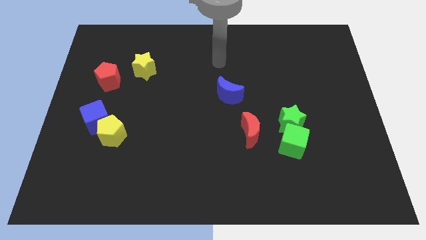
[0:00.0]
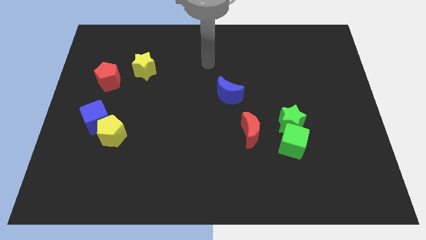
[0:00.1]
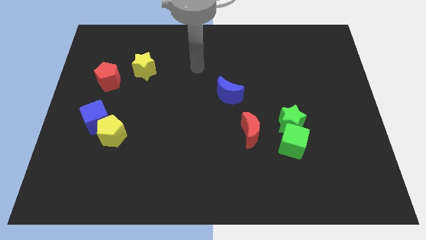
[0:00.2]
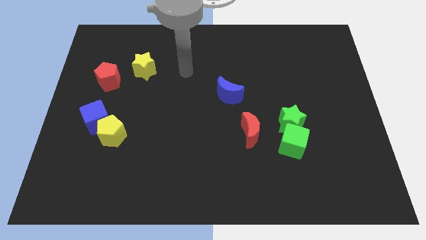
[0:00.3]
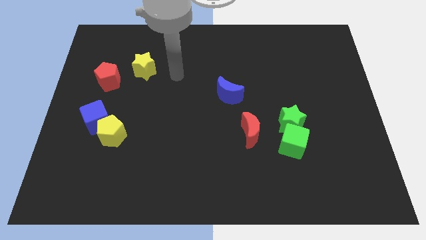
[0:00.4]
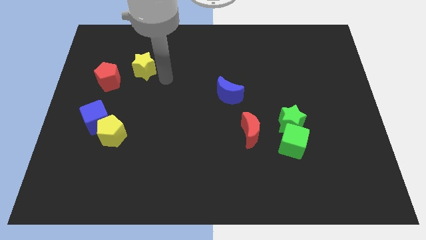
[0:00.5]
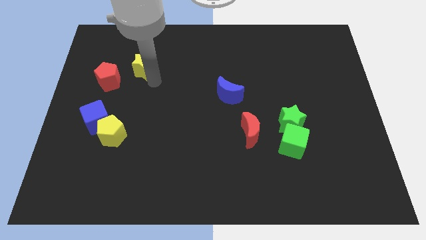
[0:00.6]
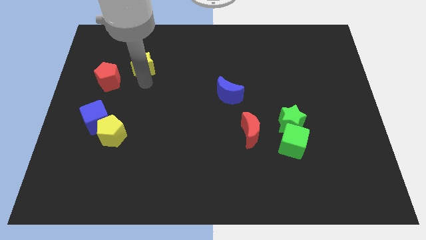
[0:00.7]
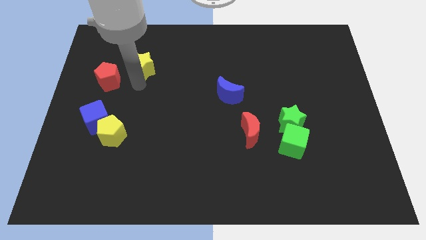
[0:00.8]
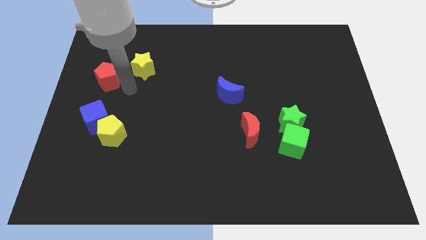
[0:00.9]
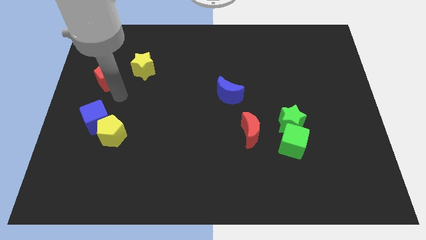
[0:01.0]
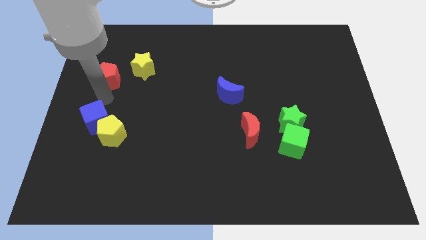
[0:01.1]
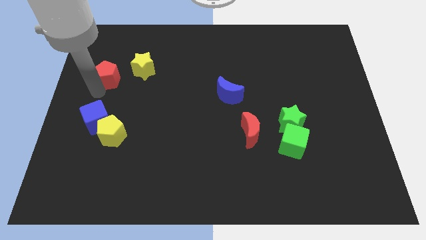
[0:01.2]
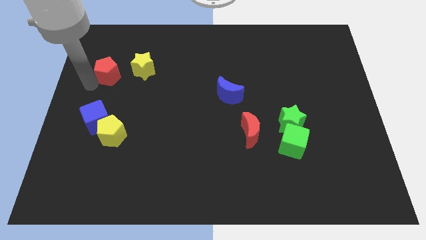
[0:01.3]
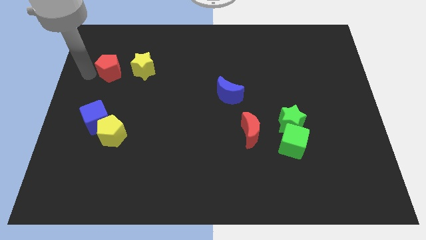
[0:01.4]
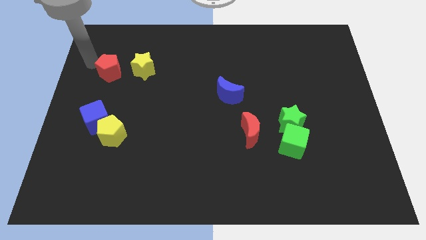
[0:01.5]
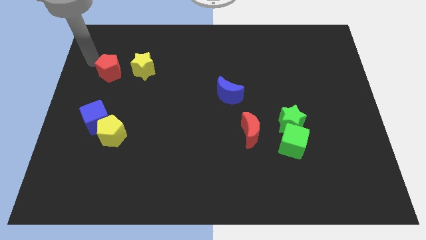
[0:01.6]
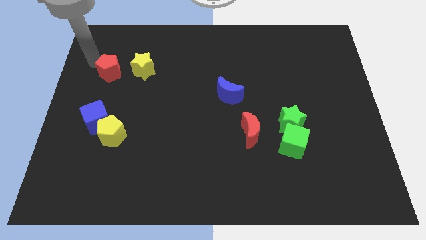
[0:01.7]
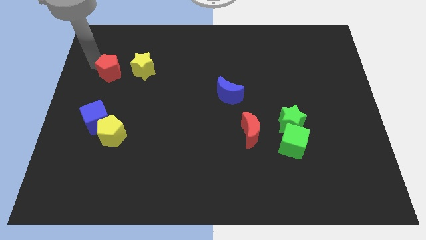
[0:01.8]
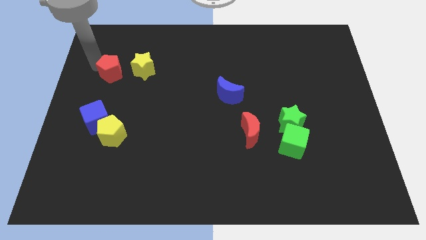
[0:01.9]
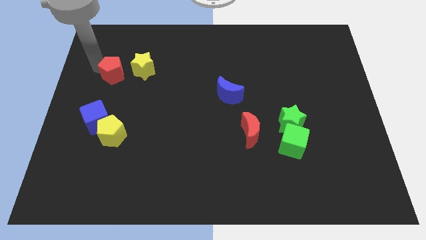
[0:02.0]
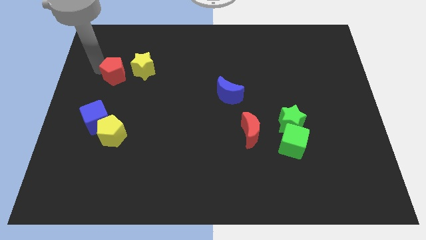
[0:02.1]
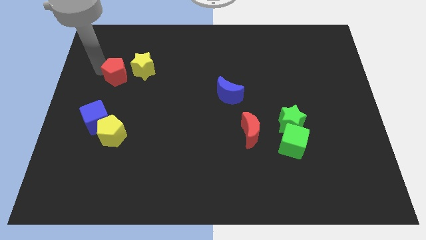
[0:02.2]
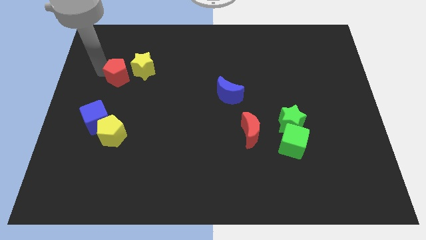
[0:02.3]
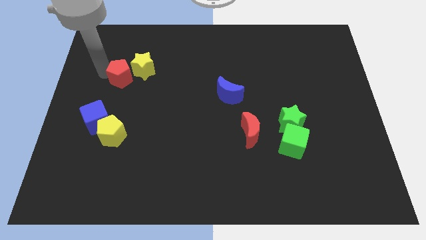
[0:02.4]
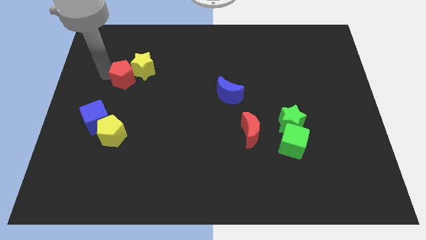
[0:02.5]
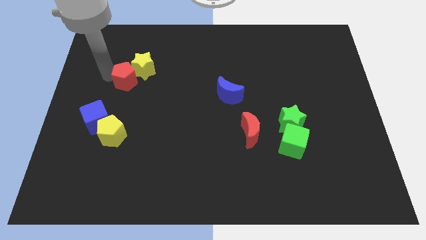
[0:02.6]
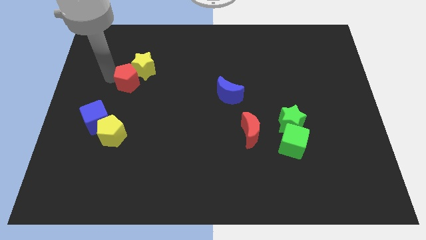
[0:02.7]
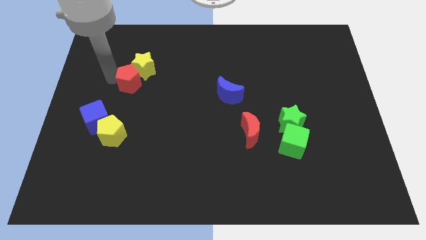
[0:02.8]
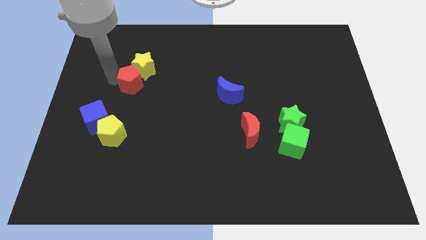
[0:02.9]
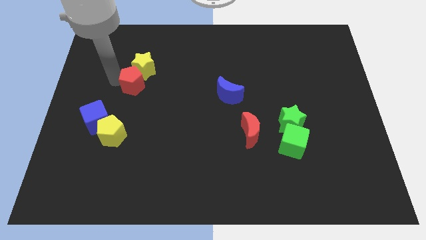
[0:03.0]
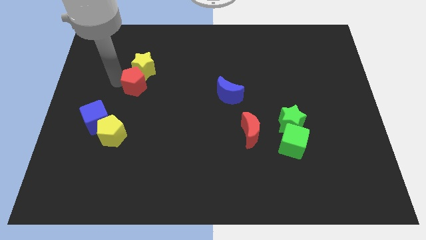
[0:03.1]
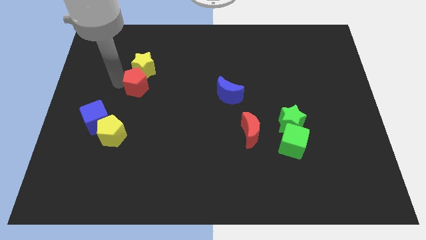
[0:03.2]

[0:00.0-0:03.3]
slide the red pentagon to the right a little

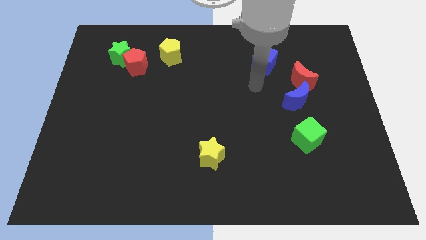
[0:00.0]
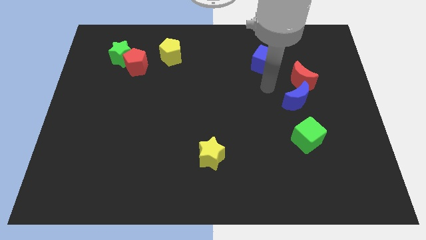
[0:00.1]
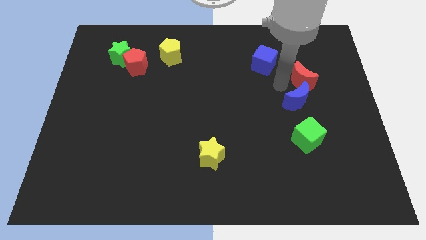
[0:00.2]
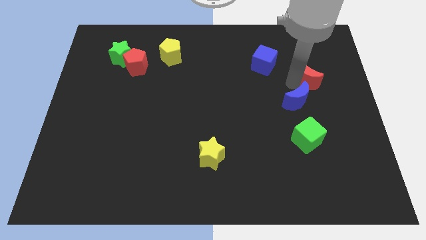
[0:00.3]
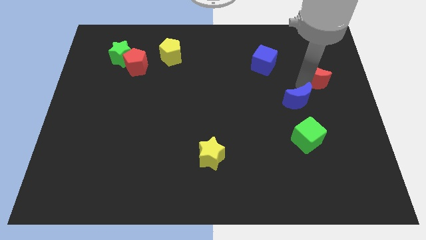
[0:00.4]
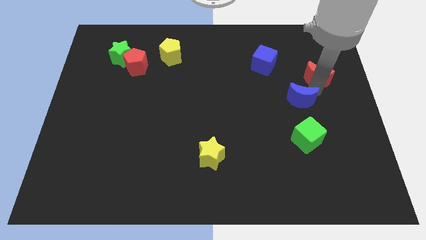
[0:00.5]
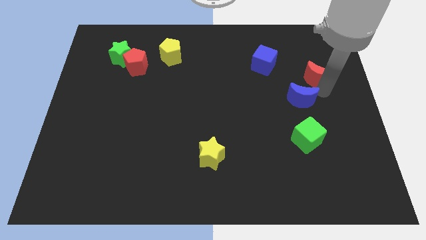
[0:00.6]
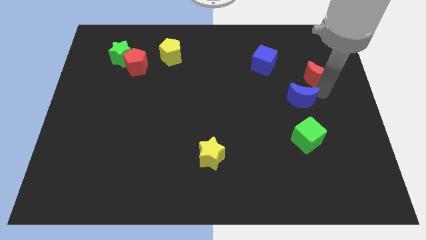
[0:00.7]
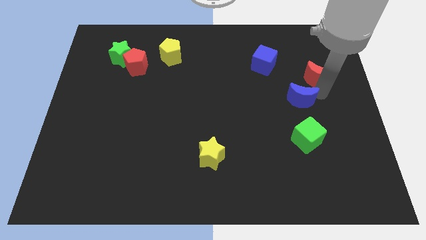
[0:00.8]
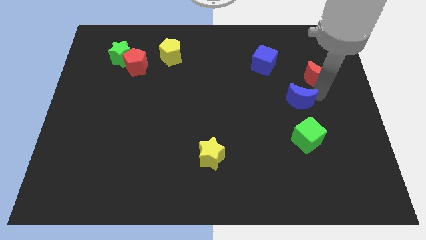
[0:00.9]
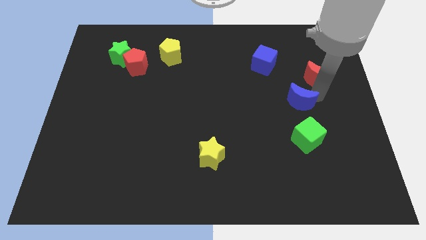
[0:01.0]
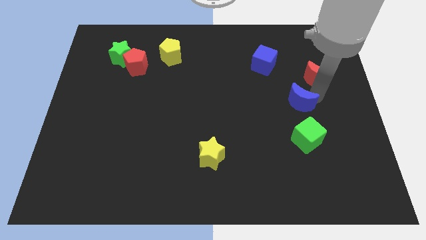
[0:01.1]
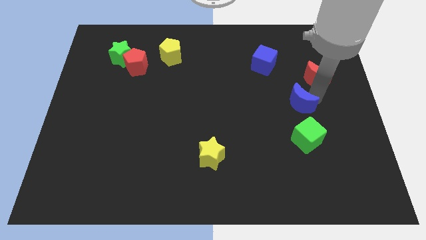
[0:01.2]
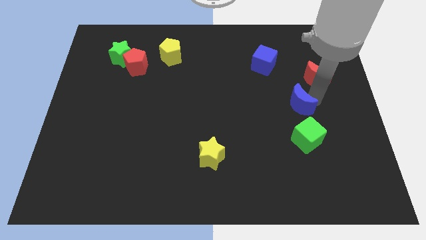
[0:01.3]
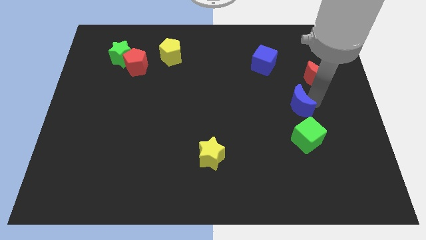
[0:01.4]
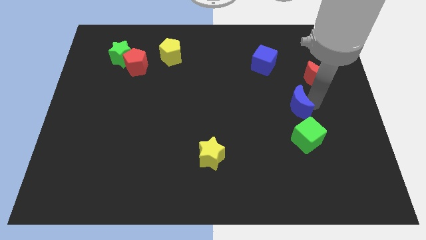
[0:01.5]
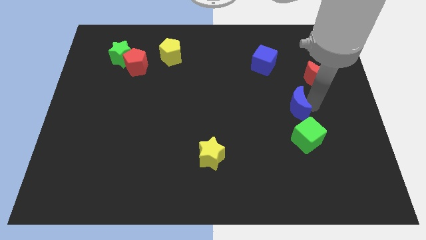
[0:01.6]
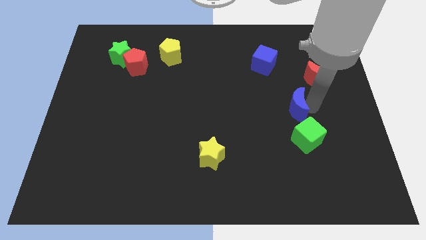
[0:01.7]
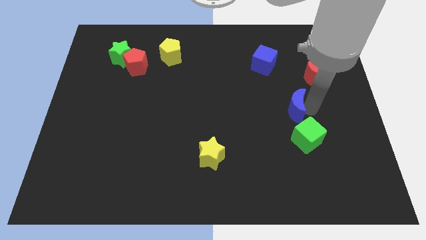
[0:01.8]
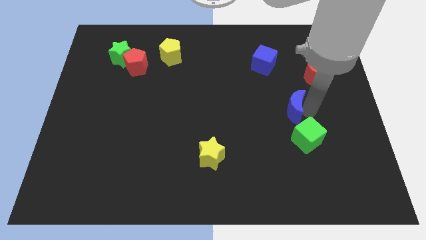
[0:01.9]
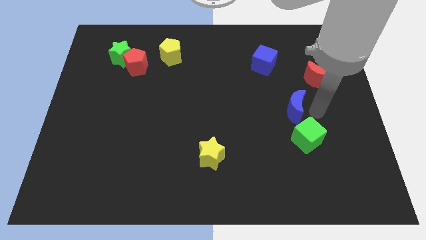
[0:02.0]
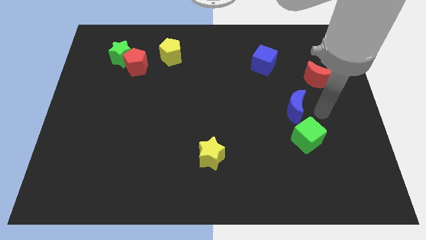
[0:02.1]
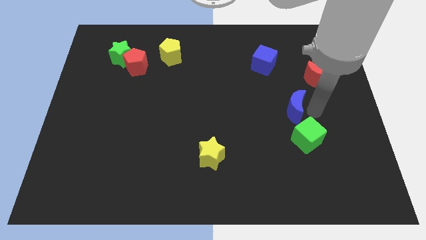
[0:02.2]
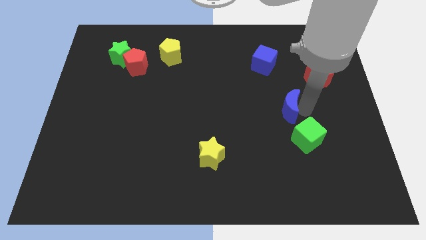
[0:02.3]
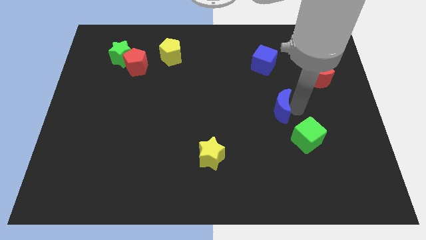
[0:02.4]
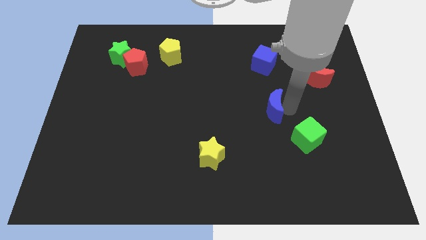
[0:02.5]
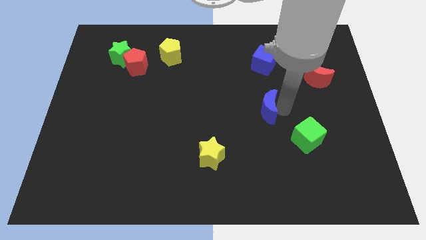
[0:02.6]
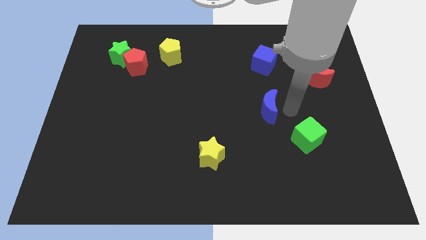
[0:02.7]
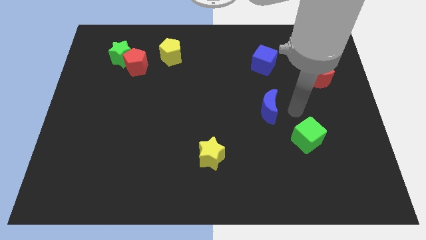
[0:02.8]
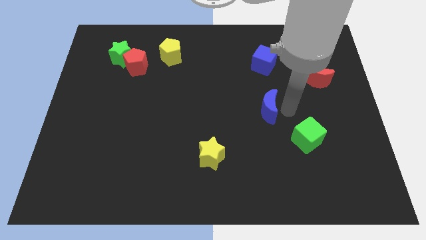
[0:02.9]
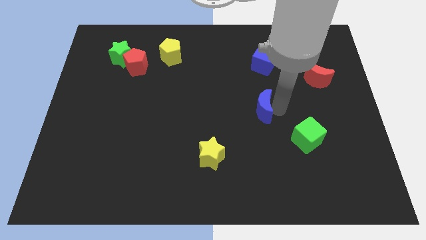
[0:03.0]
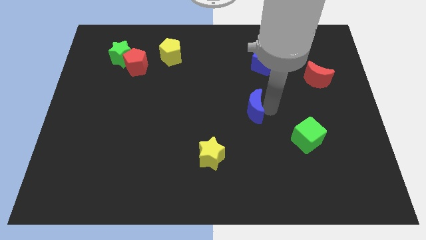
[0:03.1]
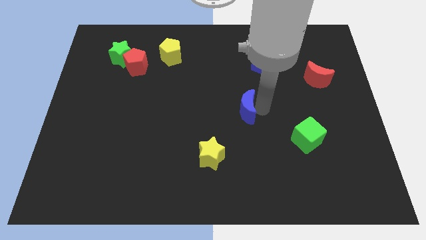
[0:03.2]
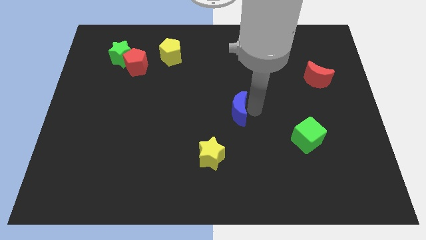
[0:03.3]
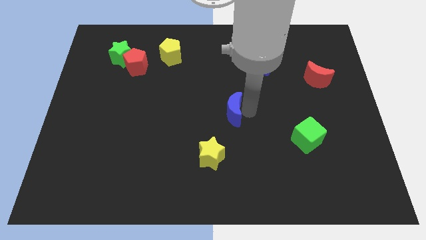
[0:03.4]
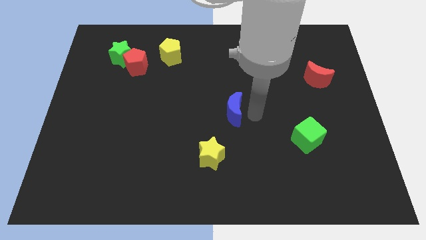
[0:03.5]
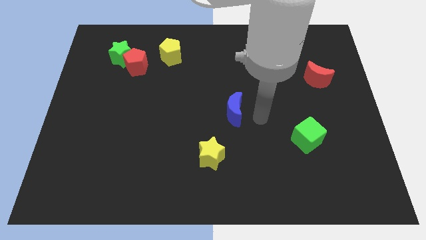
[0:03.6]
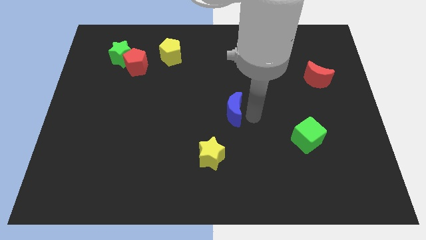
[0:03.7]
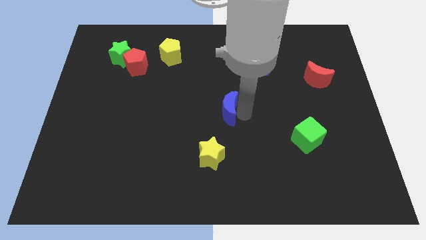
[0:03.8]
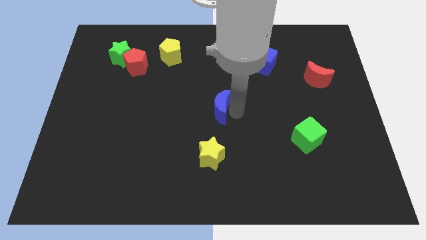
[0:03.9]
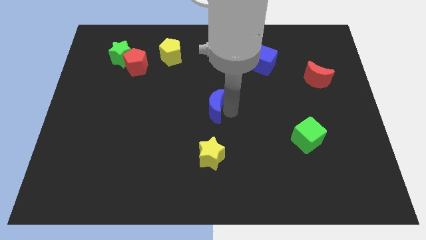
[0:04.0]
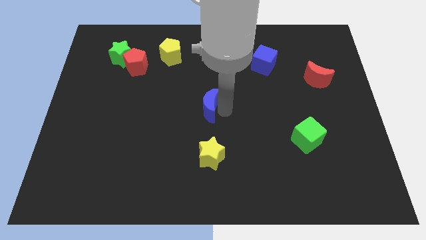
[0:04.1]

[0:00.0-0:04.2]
push the blue moon to the left

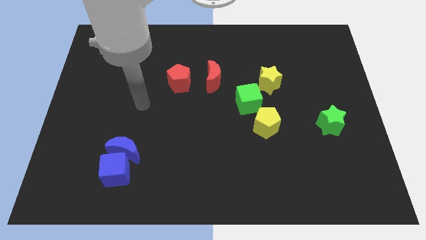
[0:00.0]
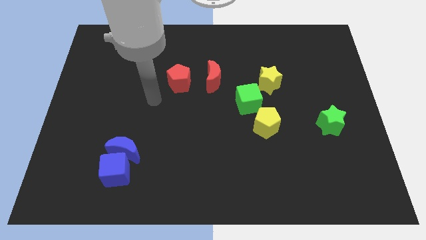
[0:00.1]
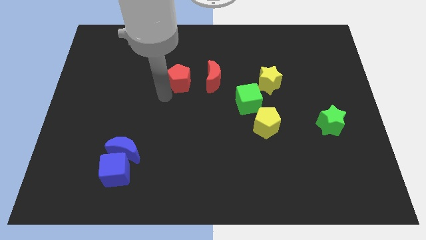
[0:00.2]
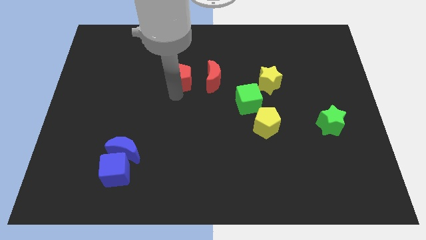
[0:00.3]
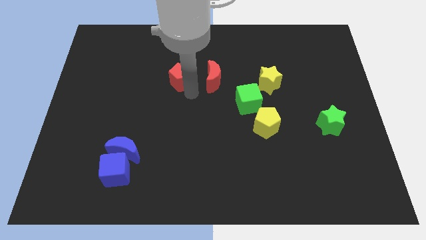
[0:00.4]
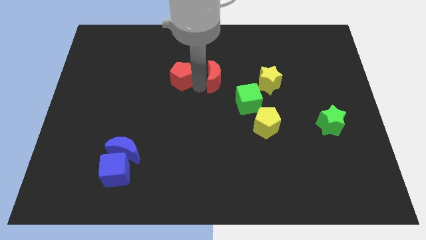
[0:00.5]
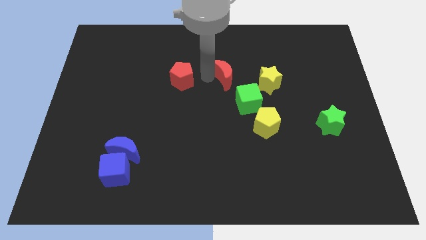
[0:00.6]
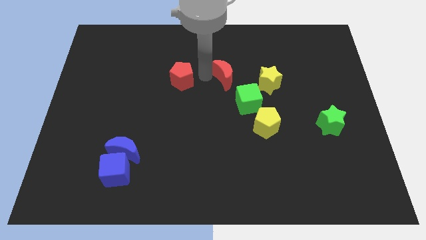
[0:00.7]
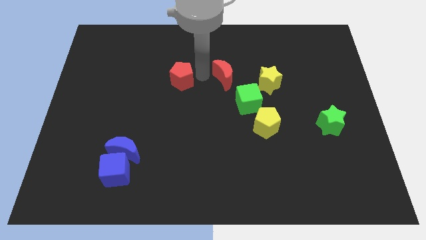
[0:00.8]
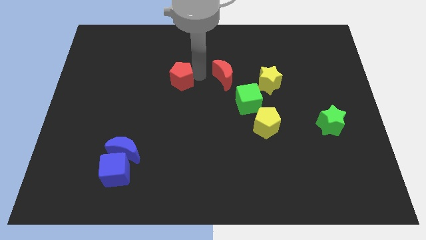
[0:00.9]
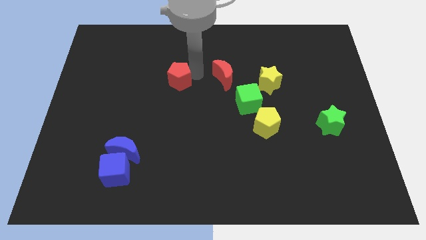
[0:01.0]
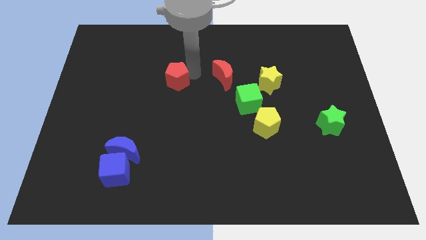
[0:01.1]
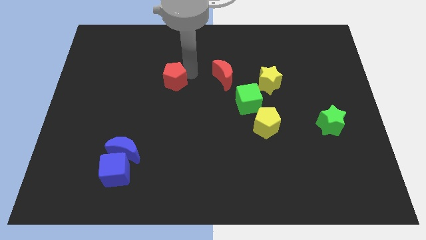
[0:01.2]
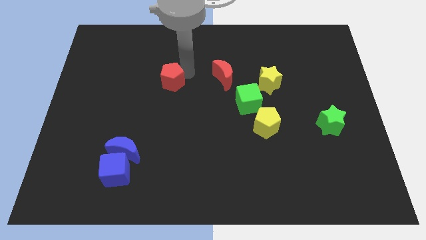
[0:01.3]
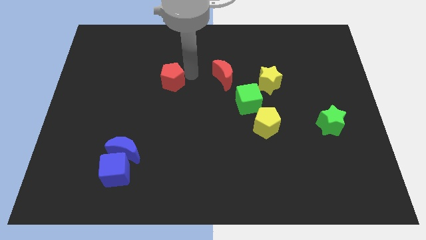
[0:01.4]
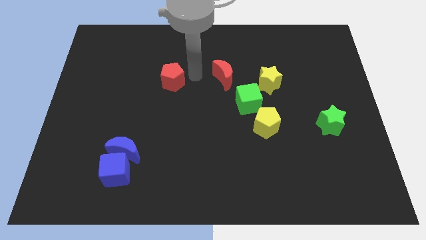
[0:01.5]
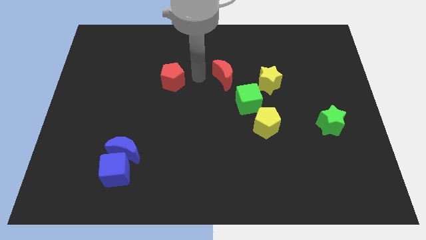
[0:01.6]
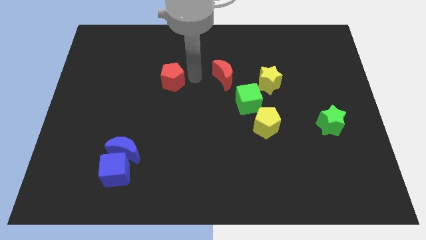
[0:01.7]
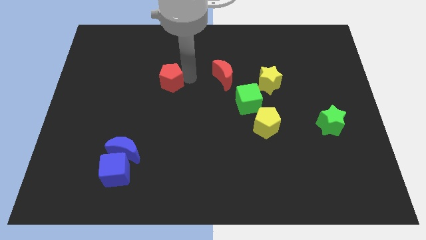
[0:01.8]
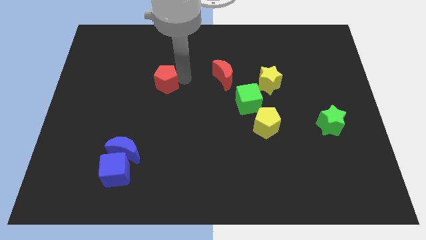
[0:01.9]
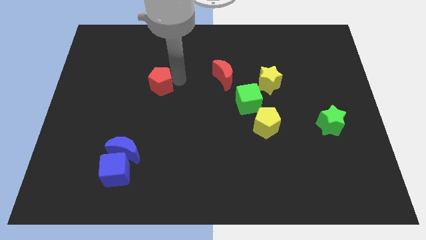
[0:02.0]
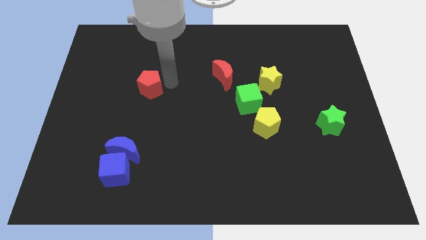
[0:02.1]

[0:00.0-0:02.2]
push the red pentagon somewhat left
